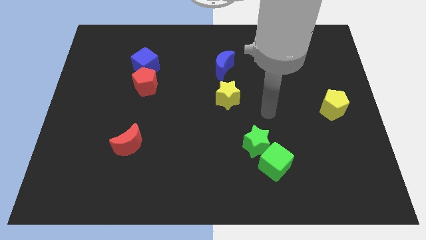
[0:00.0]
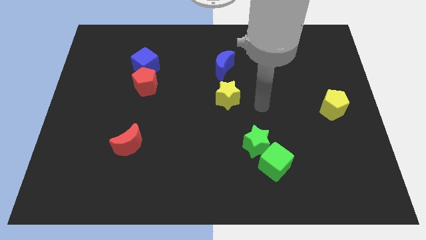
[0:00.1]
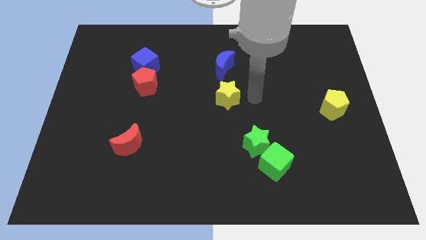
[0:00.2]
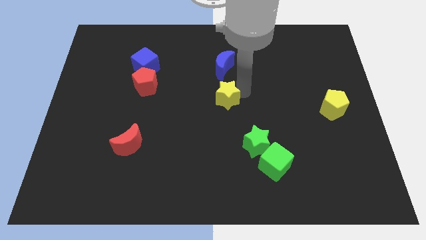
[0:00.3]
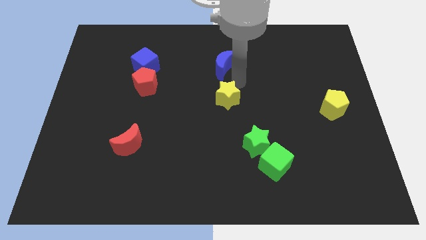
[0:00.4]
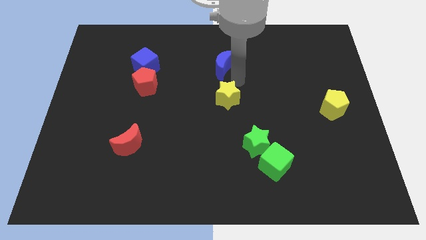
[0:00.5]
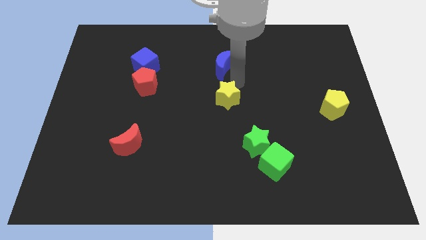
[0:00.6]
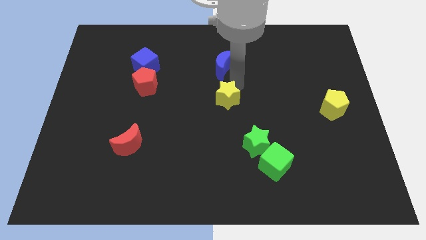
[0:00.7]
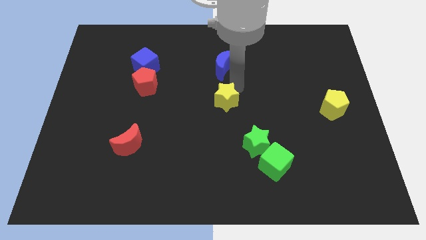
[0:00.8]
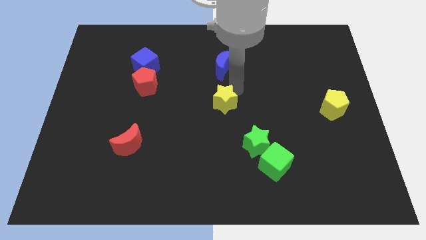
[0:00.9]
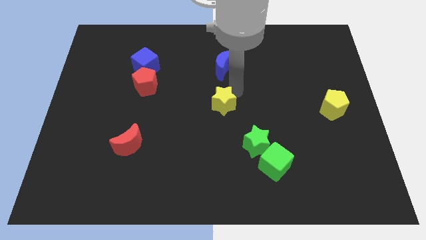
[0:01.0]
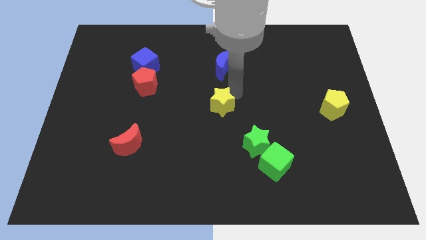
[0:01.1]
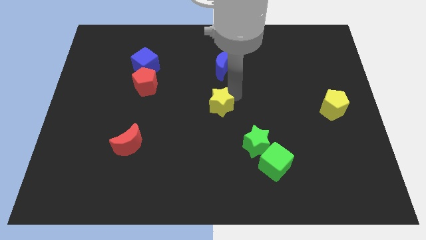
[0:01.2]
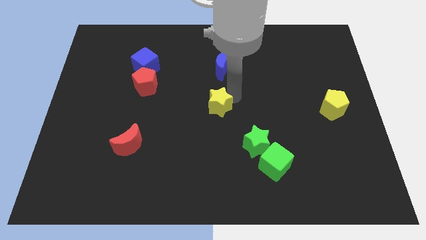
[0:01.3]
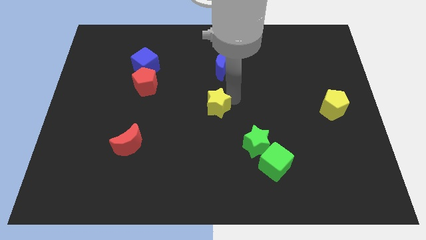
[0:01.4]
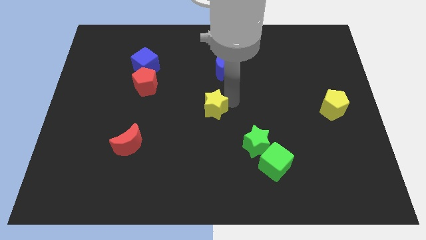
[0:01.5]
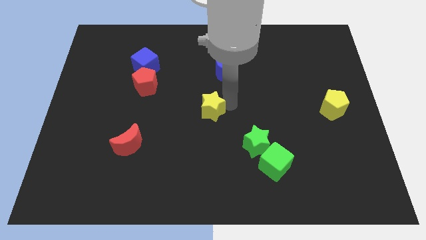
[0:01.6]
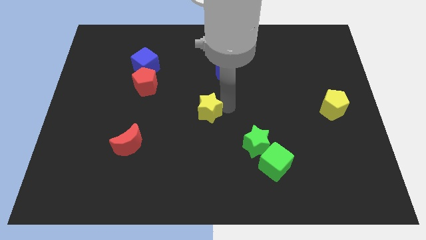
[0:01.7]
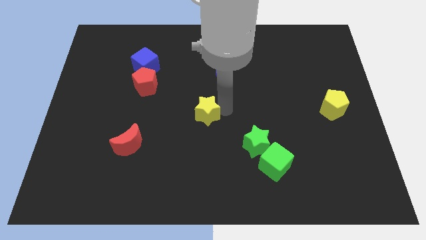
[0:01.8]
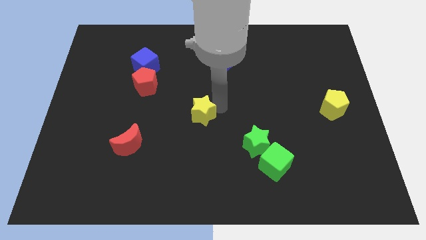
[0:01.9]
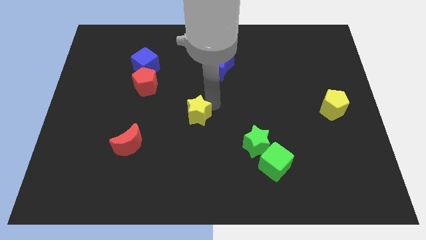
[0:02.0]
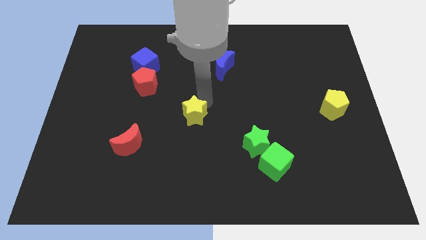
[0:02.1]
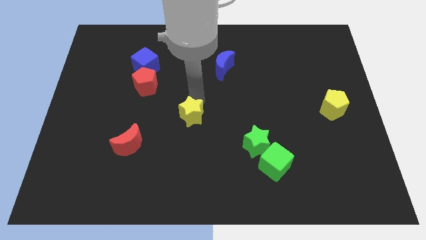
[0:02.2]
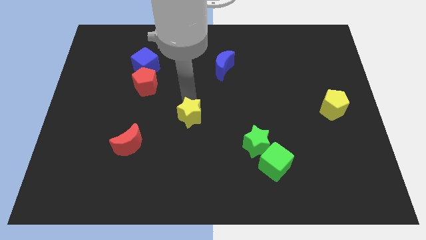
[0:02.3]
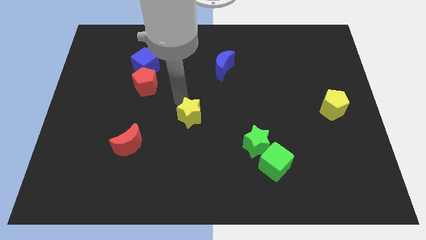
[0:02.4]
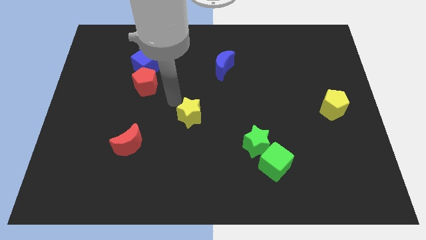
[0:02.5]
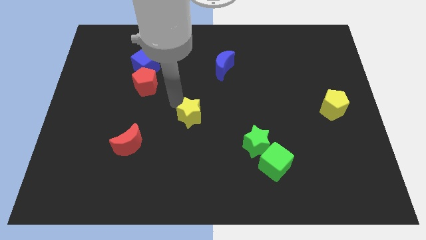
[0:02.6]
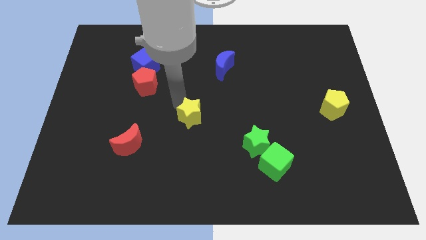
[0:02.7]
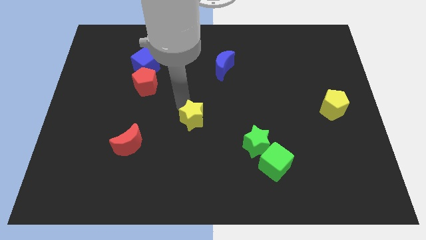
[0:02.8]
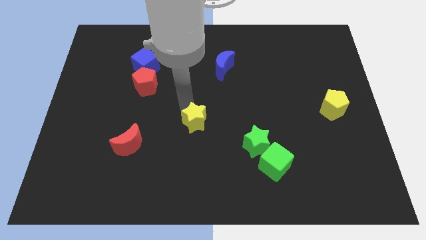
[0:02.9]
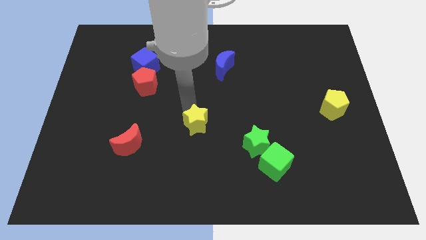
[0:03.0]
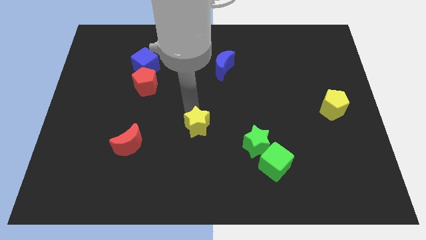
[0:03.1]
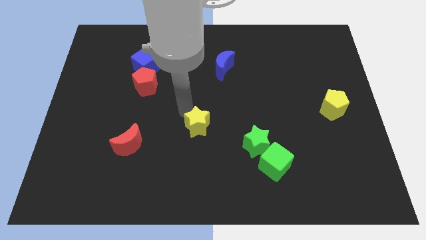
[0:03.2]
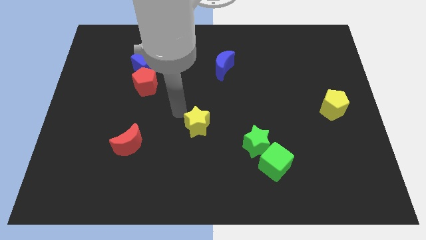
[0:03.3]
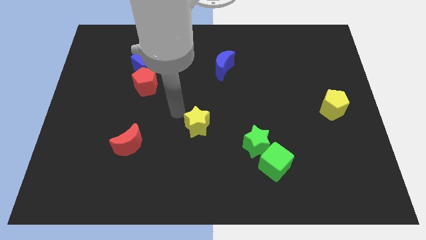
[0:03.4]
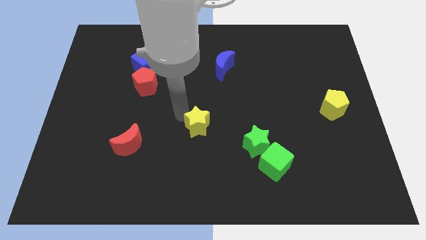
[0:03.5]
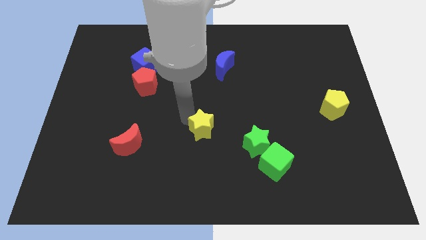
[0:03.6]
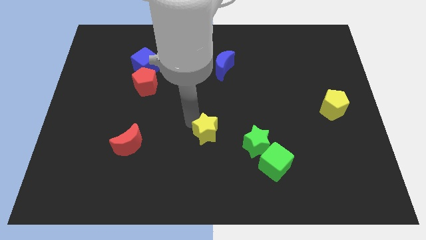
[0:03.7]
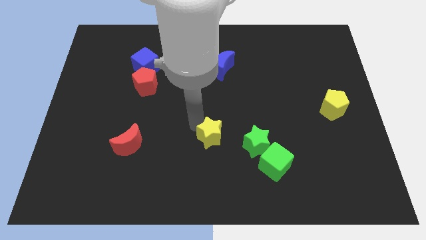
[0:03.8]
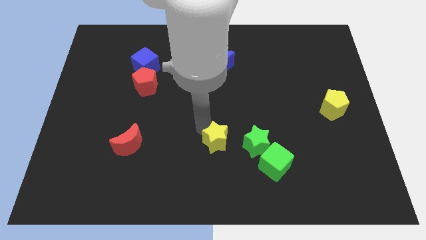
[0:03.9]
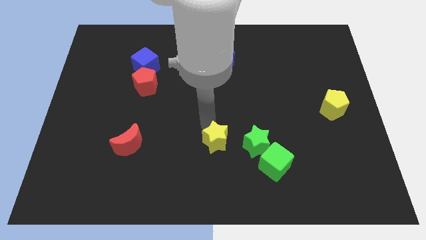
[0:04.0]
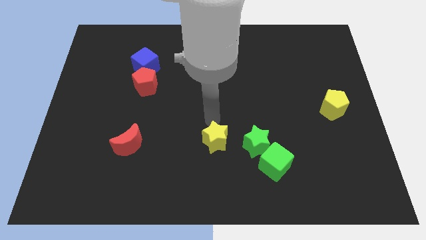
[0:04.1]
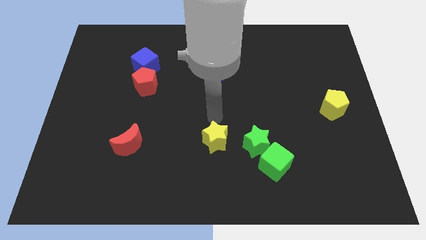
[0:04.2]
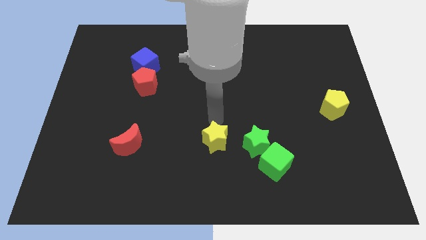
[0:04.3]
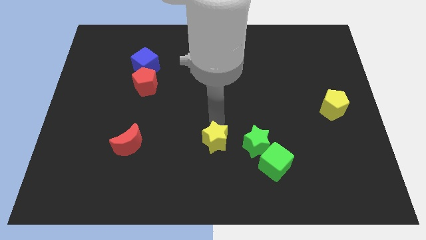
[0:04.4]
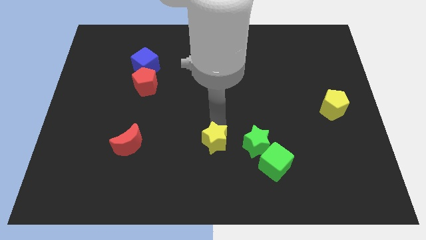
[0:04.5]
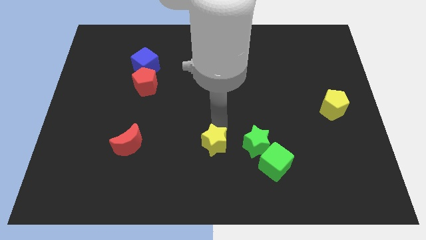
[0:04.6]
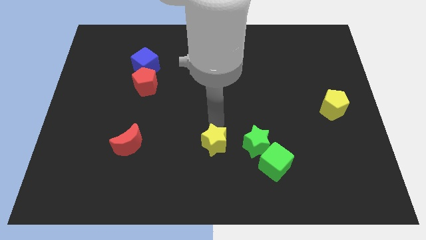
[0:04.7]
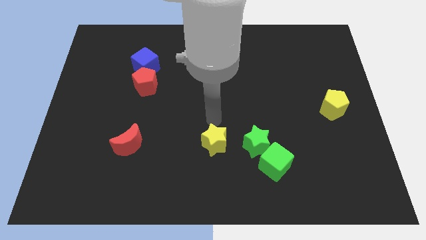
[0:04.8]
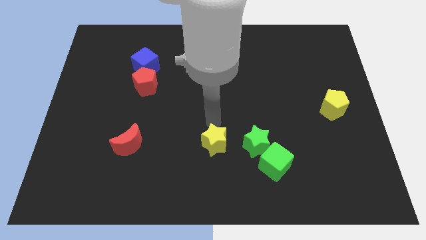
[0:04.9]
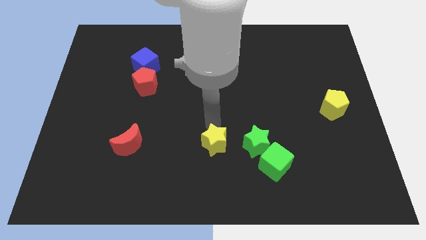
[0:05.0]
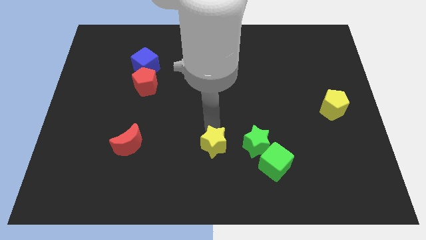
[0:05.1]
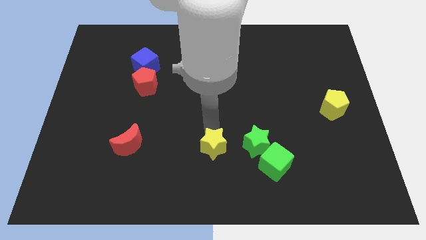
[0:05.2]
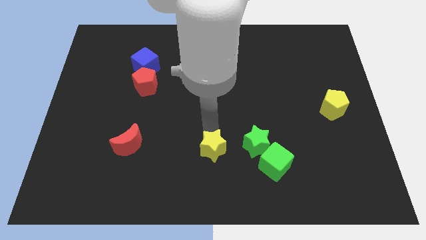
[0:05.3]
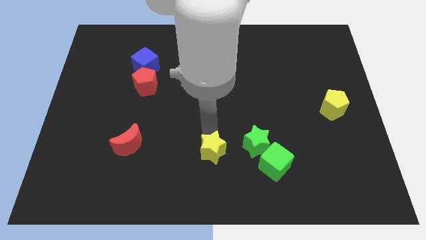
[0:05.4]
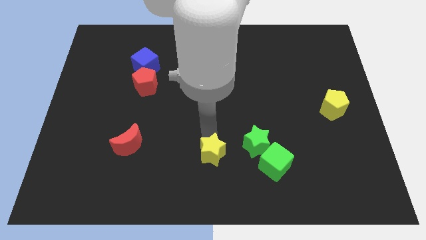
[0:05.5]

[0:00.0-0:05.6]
move the yellow star to the bottom side

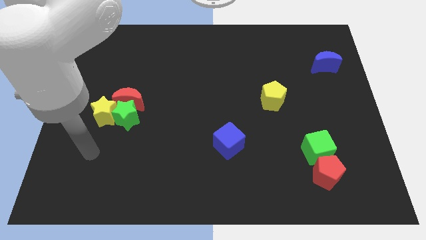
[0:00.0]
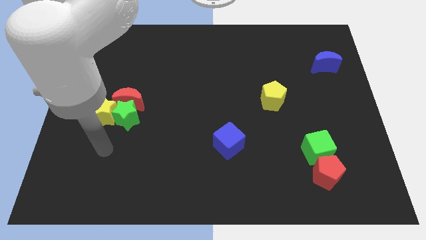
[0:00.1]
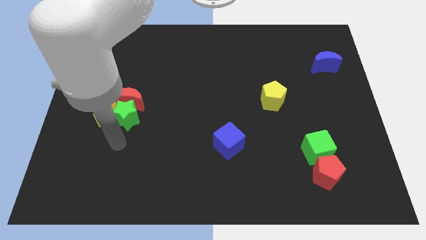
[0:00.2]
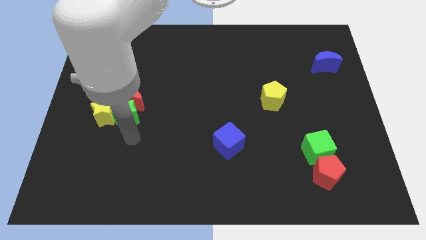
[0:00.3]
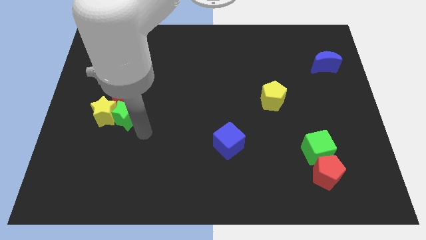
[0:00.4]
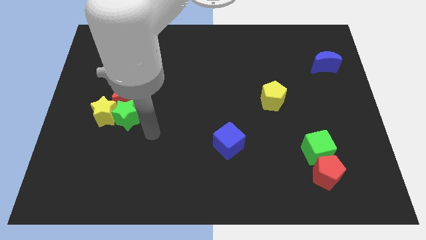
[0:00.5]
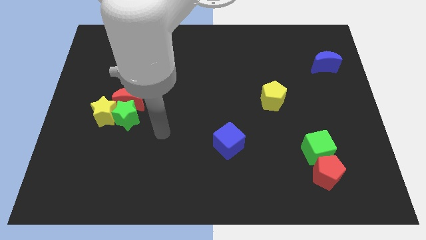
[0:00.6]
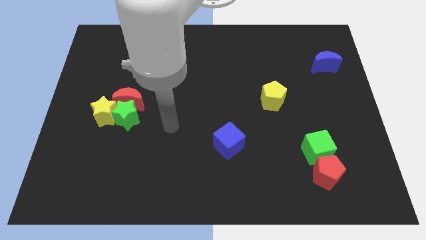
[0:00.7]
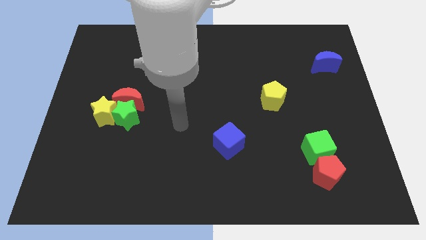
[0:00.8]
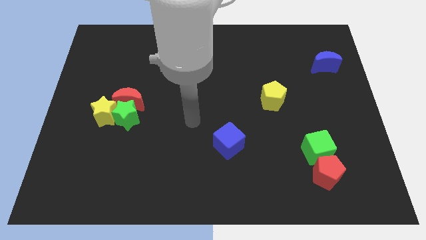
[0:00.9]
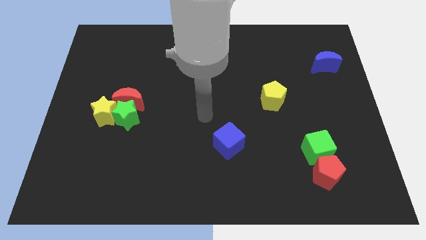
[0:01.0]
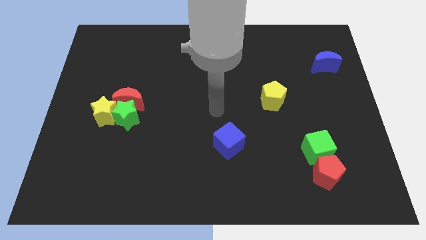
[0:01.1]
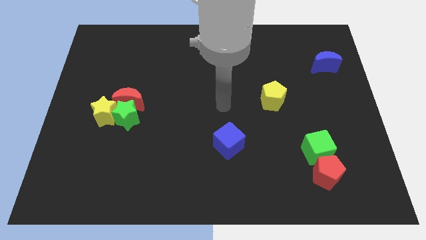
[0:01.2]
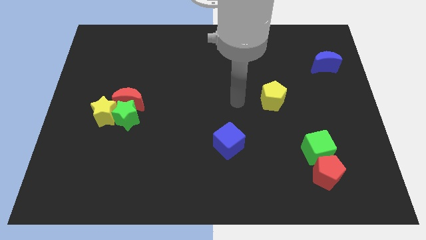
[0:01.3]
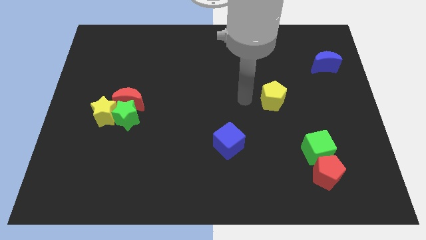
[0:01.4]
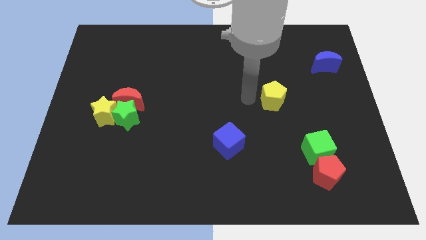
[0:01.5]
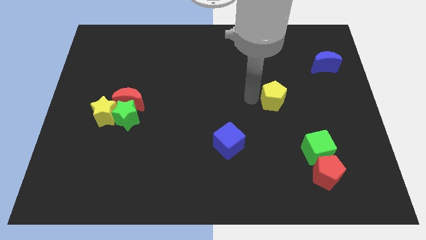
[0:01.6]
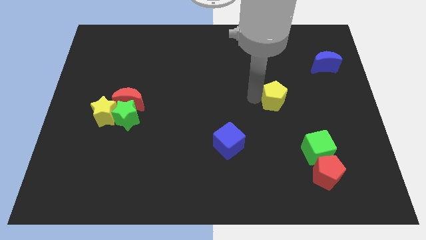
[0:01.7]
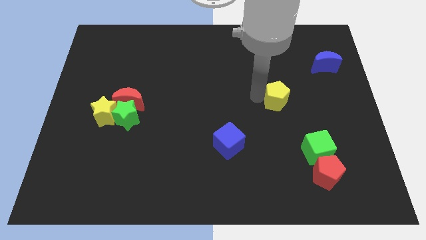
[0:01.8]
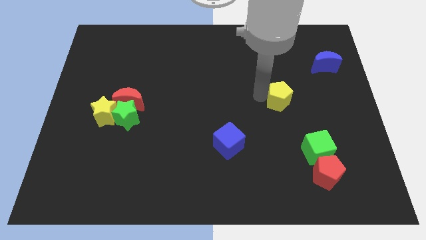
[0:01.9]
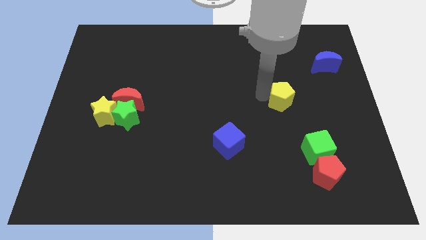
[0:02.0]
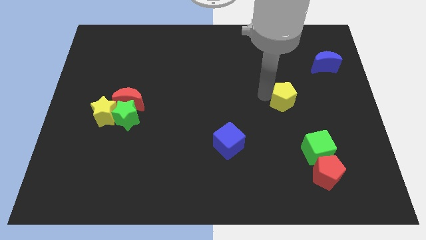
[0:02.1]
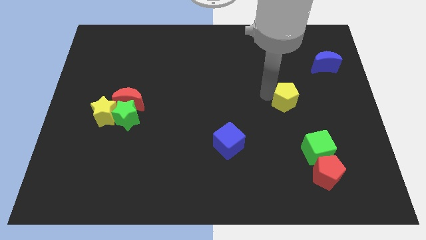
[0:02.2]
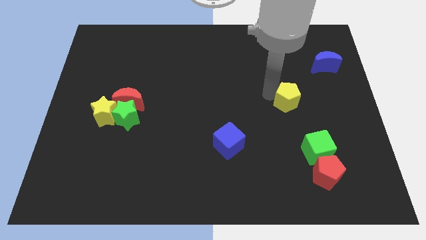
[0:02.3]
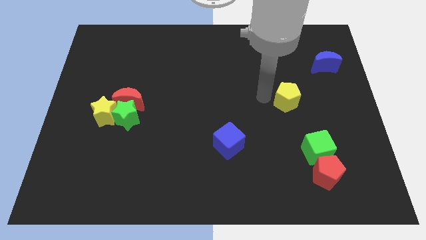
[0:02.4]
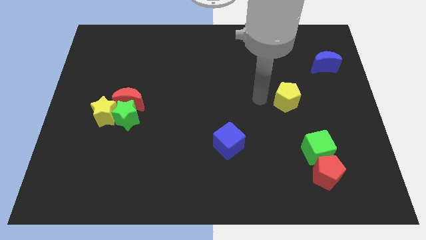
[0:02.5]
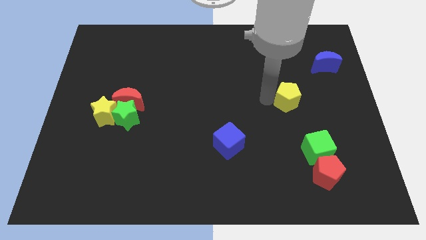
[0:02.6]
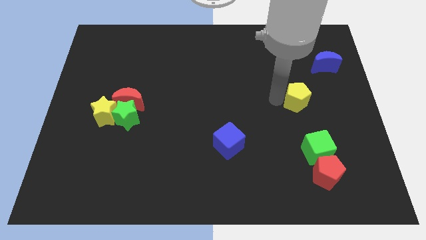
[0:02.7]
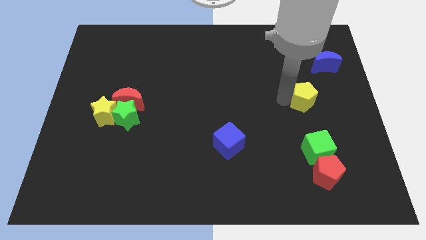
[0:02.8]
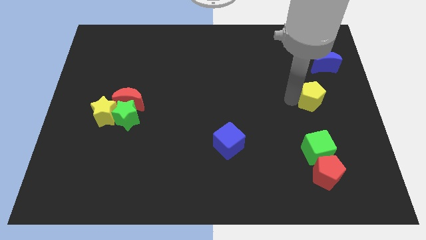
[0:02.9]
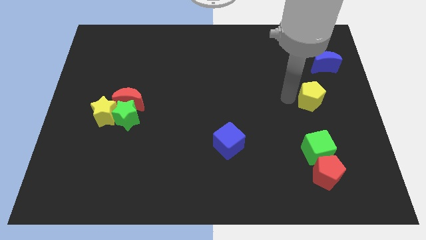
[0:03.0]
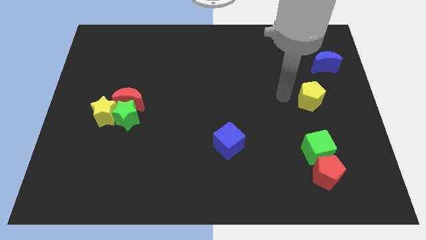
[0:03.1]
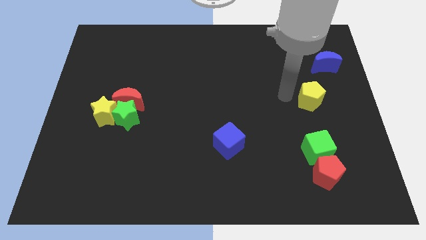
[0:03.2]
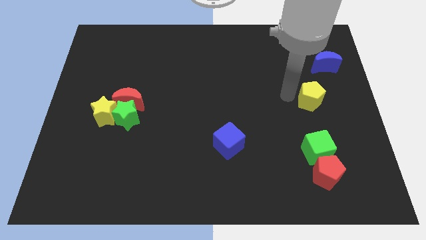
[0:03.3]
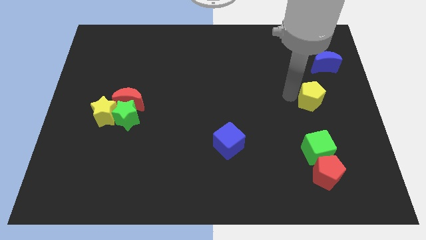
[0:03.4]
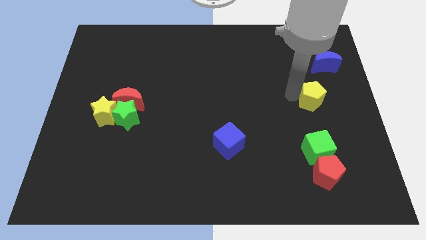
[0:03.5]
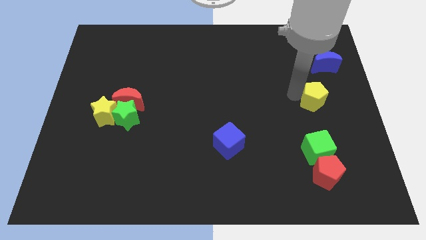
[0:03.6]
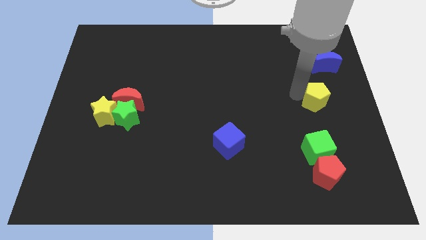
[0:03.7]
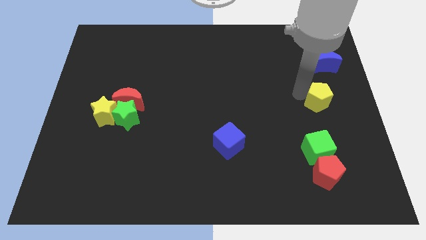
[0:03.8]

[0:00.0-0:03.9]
push the yellow pentagon to the right side
